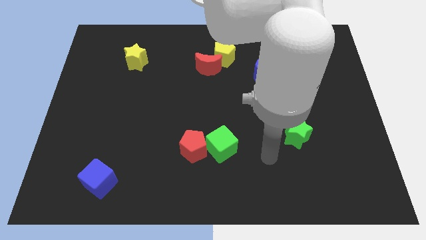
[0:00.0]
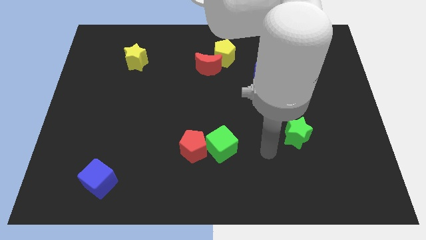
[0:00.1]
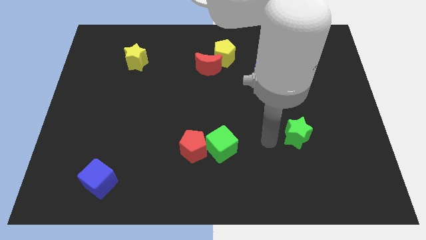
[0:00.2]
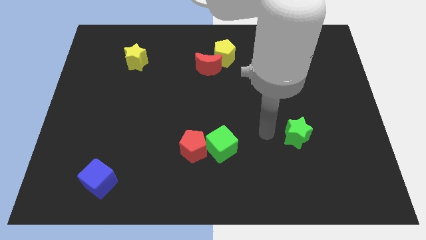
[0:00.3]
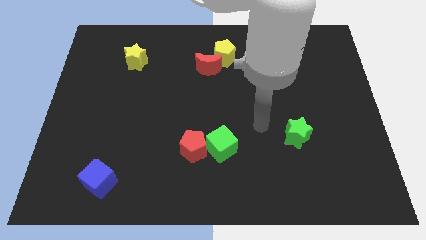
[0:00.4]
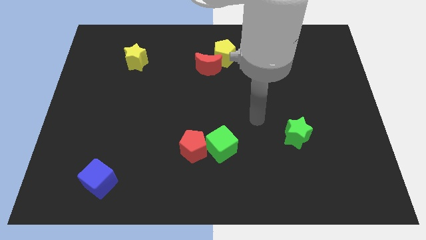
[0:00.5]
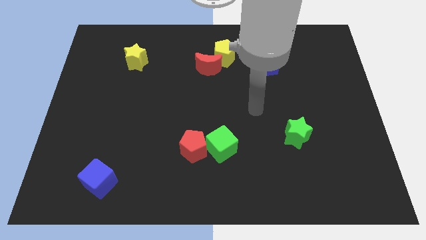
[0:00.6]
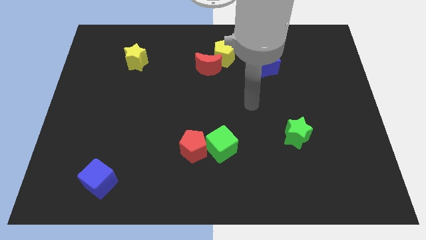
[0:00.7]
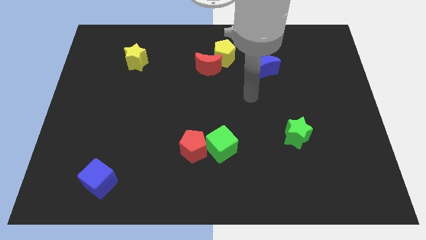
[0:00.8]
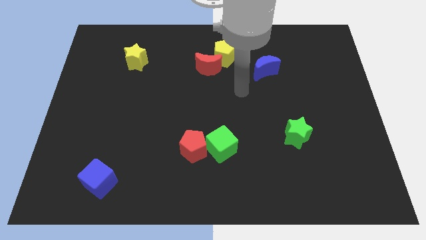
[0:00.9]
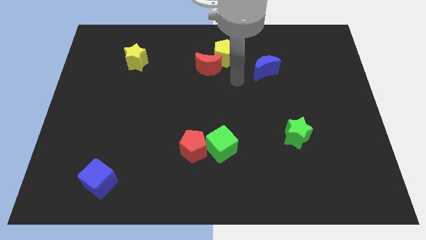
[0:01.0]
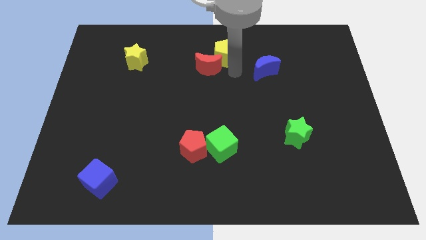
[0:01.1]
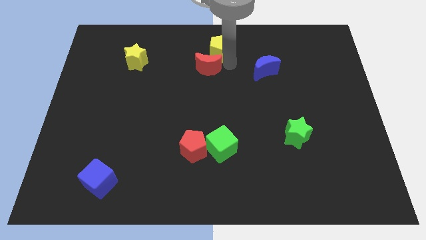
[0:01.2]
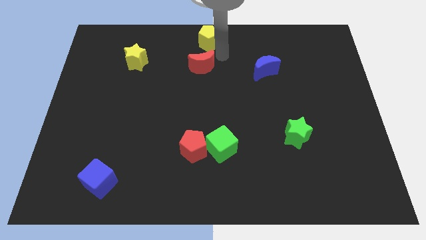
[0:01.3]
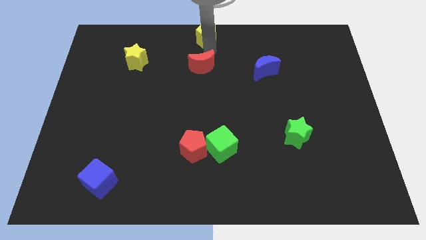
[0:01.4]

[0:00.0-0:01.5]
move the red moon away from the yellow pentagon

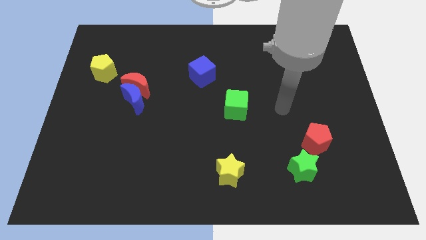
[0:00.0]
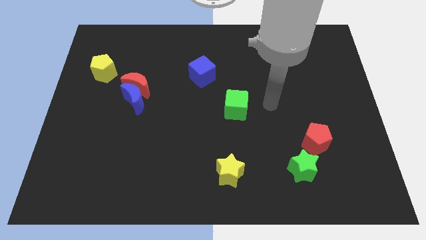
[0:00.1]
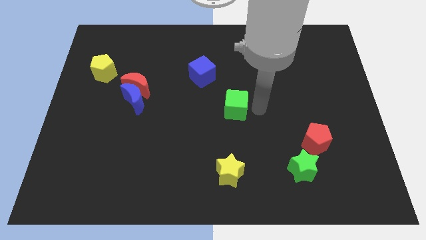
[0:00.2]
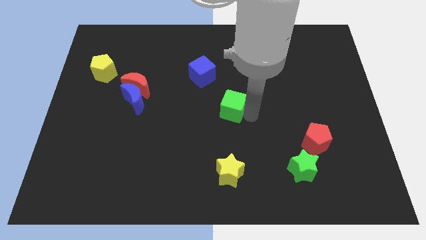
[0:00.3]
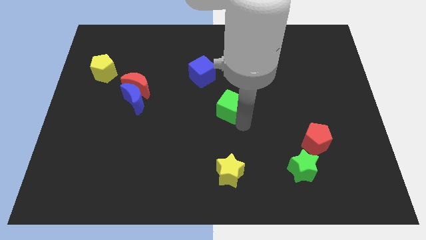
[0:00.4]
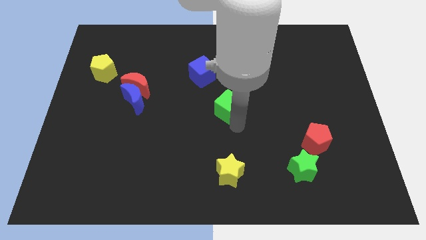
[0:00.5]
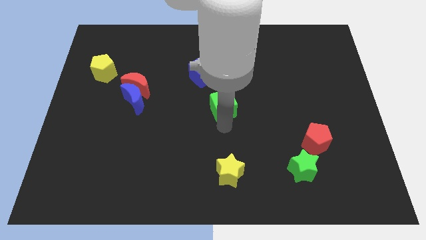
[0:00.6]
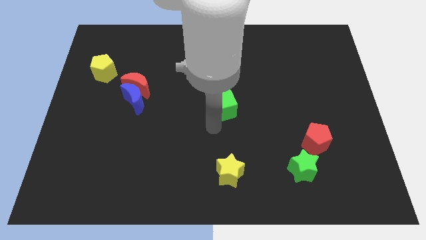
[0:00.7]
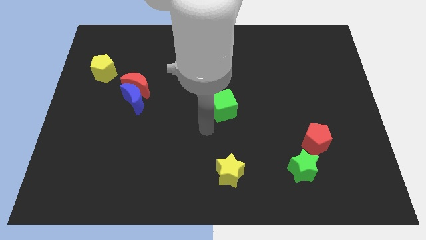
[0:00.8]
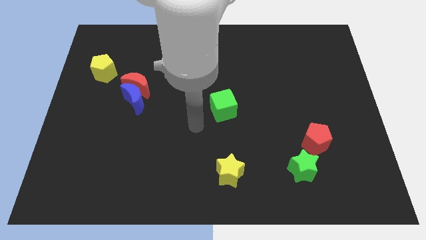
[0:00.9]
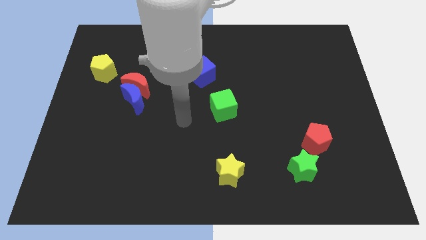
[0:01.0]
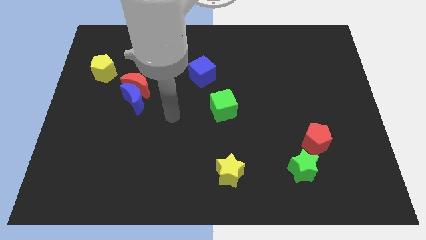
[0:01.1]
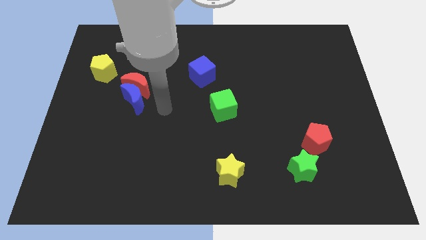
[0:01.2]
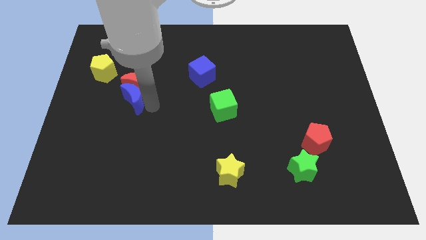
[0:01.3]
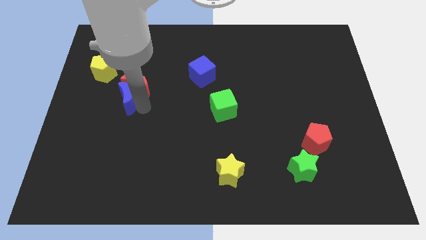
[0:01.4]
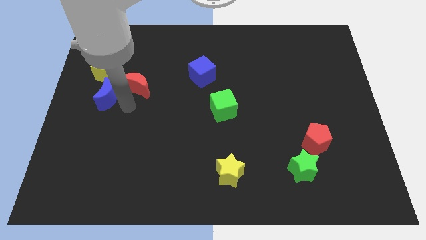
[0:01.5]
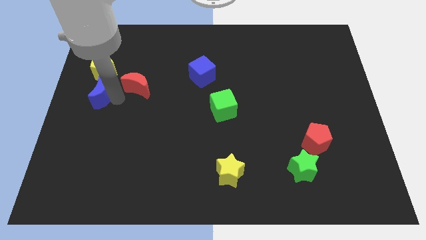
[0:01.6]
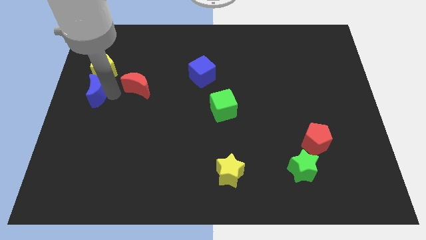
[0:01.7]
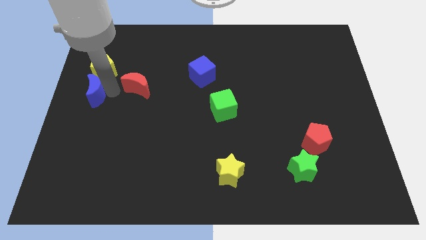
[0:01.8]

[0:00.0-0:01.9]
move the red moon away from the blue moon

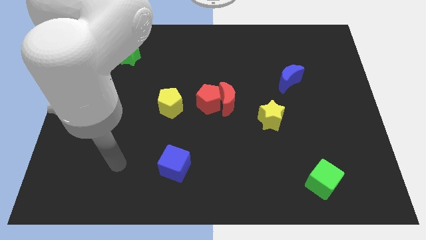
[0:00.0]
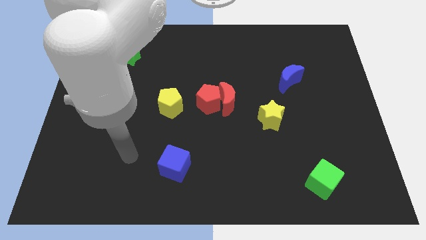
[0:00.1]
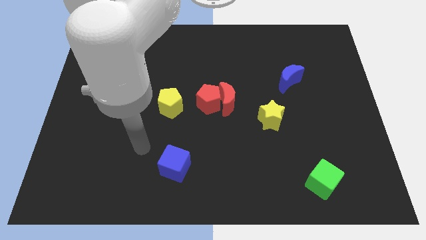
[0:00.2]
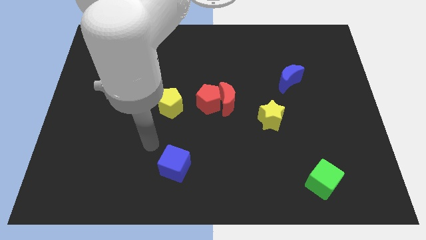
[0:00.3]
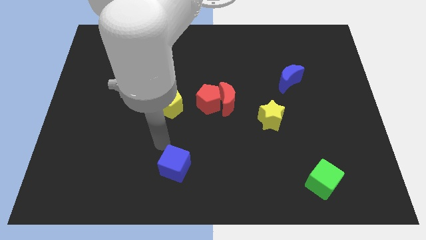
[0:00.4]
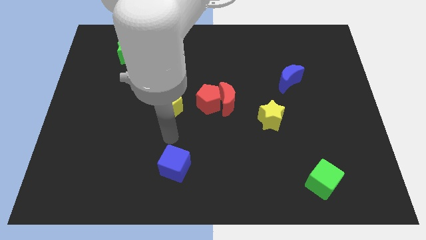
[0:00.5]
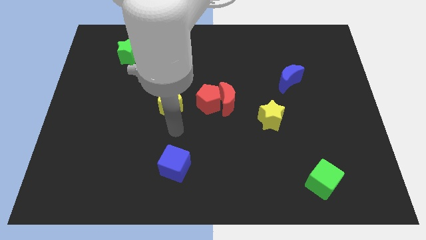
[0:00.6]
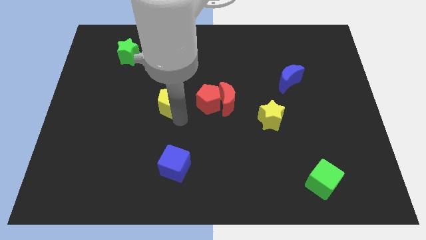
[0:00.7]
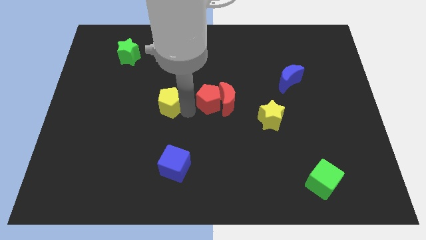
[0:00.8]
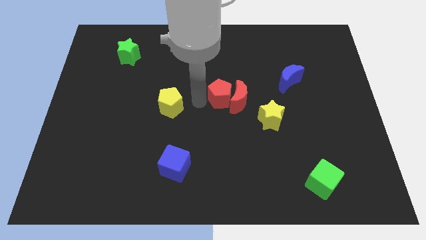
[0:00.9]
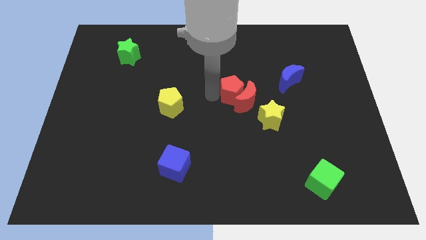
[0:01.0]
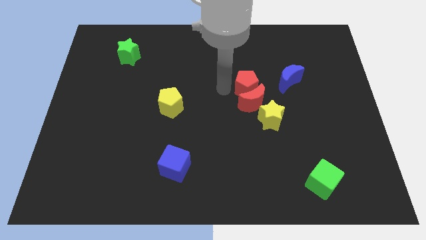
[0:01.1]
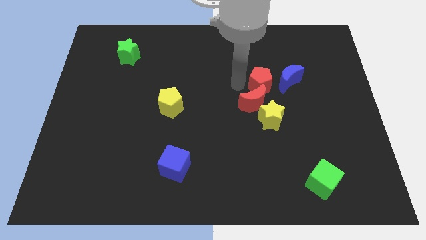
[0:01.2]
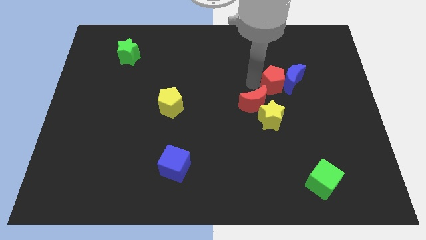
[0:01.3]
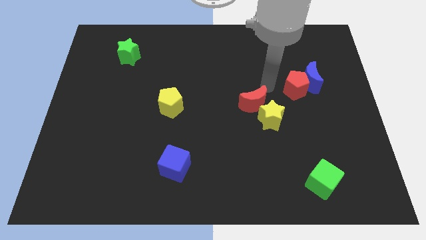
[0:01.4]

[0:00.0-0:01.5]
move the red moon away from the red pentagon

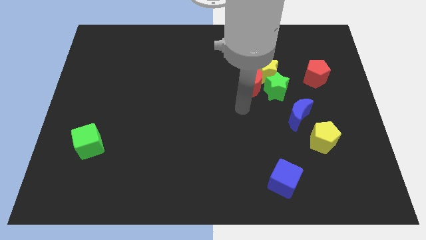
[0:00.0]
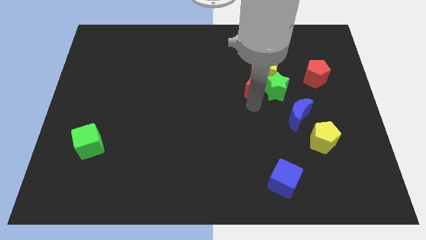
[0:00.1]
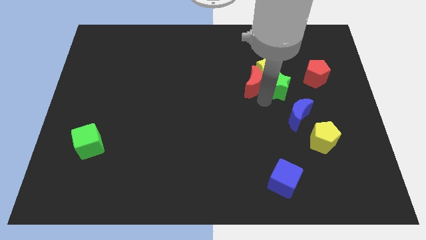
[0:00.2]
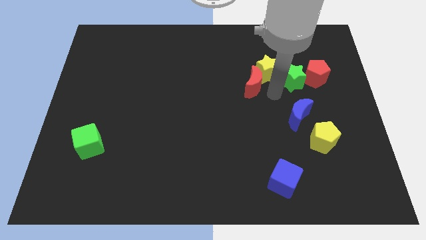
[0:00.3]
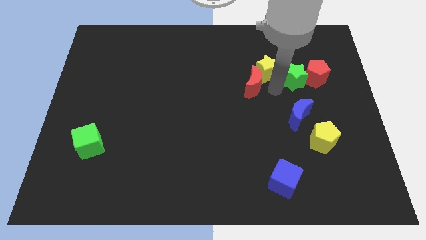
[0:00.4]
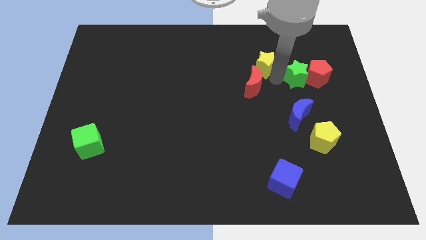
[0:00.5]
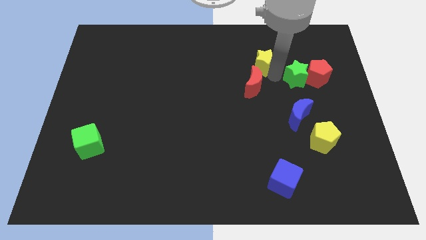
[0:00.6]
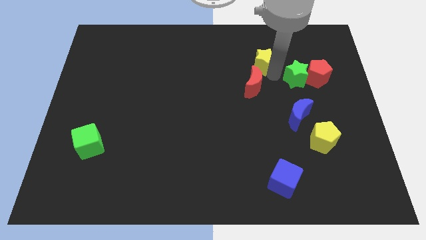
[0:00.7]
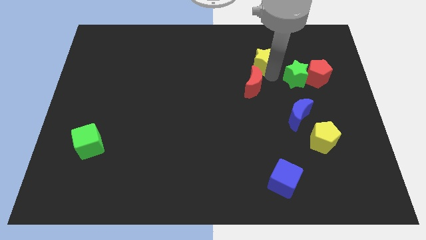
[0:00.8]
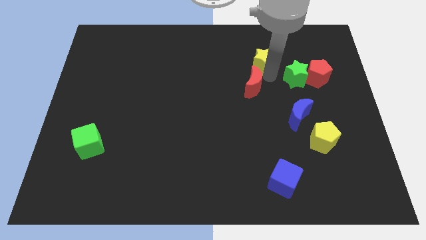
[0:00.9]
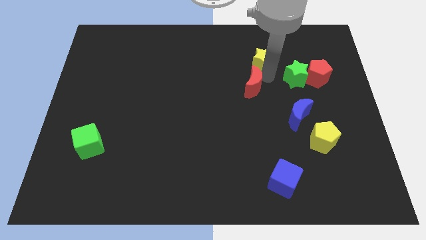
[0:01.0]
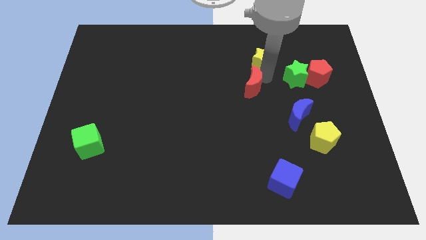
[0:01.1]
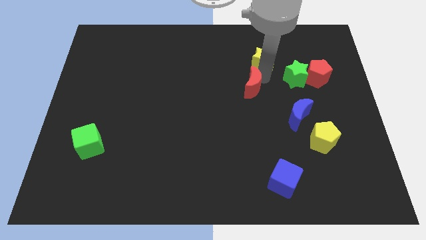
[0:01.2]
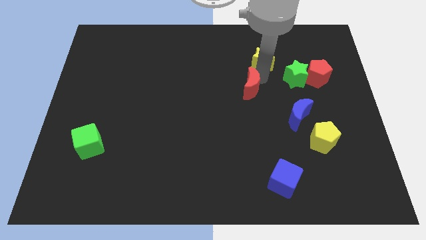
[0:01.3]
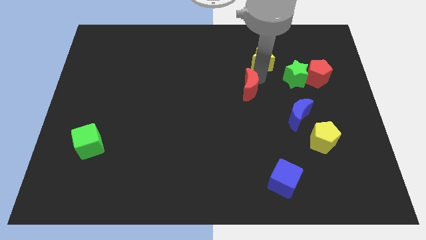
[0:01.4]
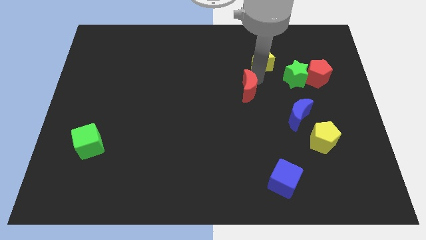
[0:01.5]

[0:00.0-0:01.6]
move the red moon away from the green star and yellow star

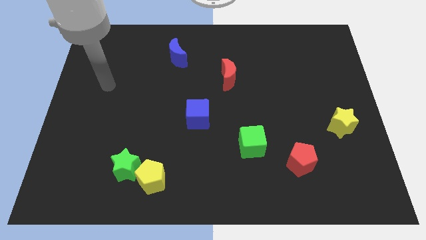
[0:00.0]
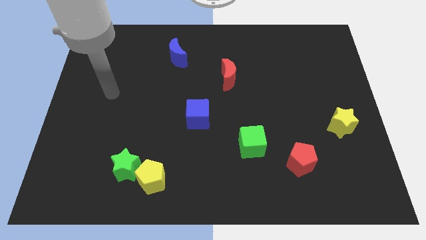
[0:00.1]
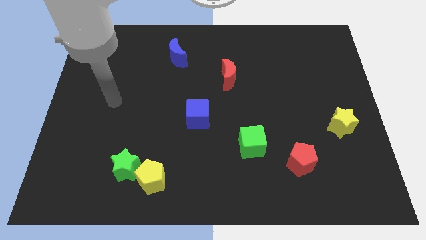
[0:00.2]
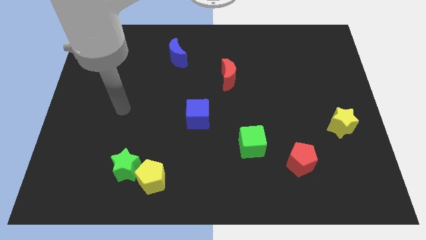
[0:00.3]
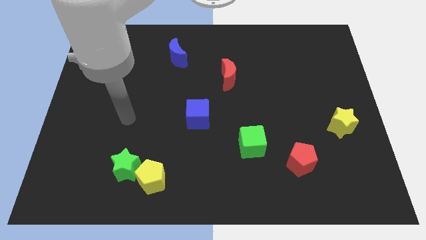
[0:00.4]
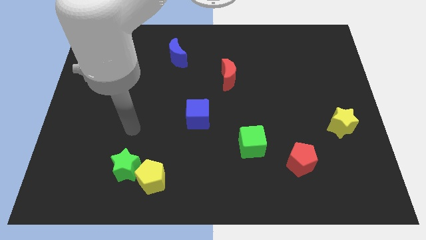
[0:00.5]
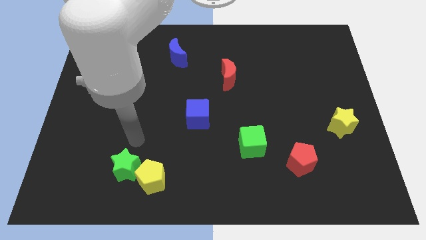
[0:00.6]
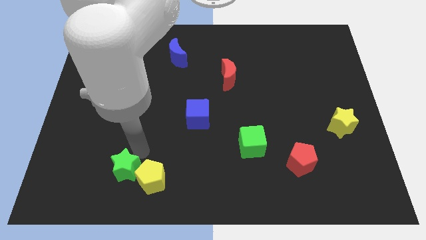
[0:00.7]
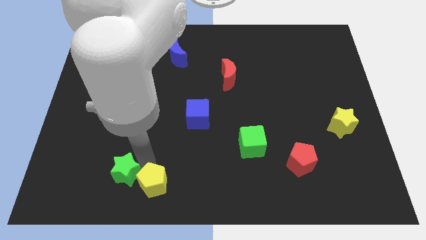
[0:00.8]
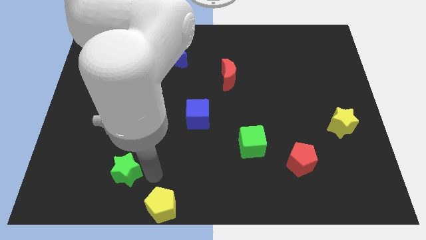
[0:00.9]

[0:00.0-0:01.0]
move the green star away from the yellow pentagon

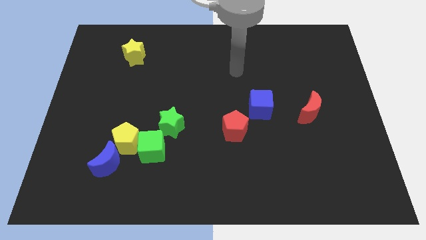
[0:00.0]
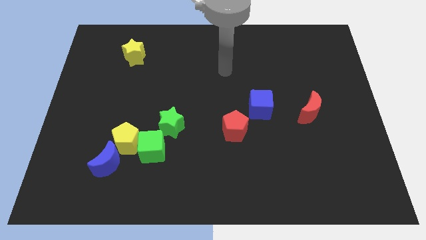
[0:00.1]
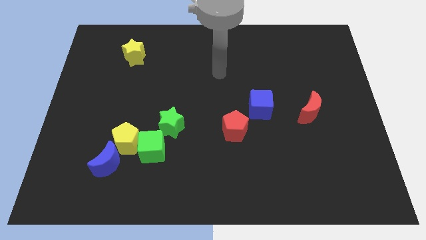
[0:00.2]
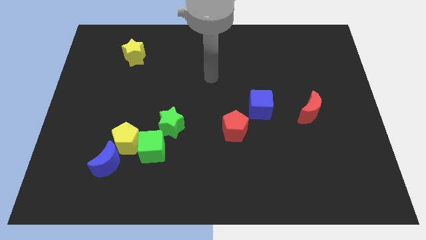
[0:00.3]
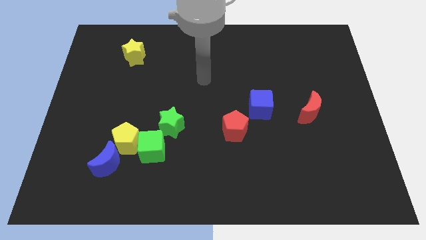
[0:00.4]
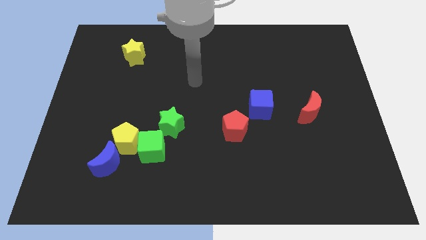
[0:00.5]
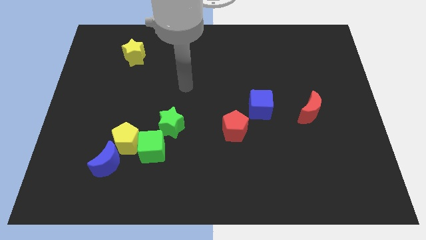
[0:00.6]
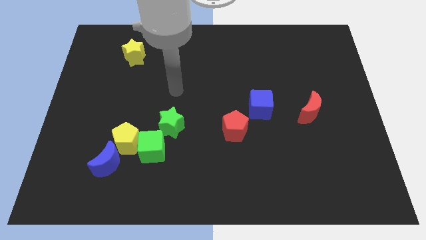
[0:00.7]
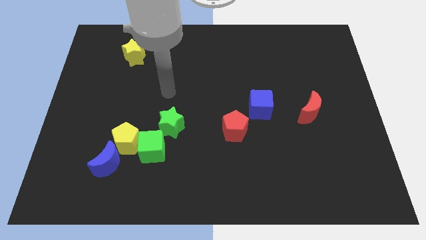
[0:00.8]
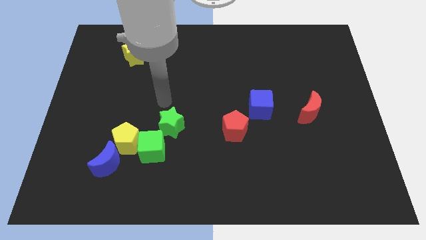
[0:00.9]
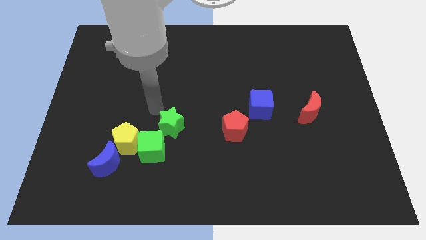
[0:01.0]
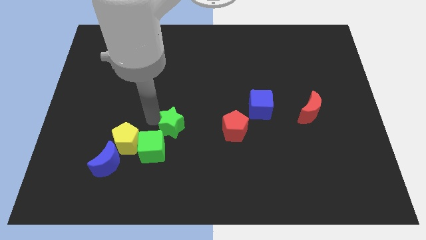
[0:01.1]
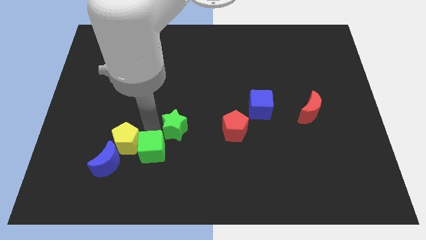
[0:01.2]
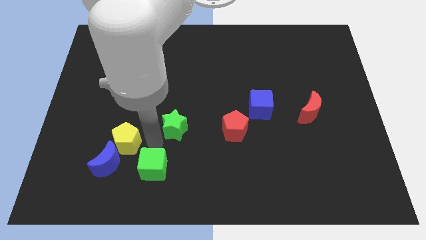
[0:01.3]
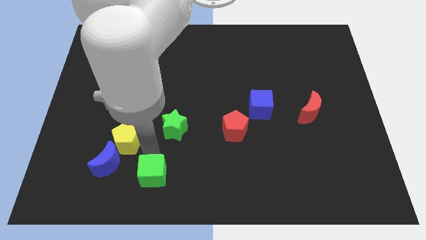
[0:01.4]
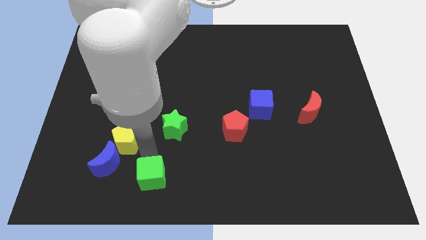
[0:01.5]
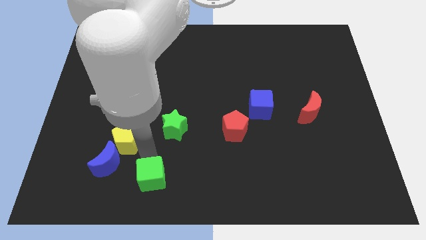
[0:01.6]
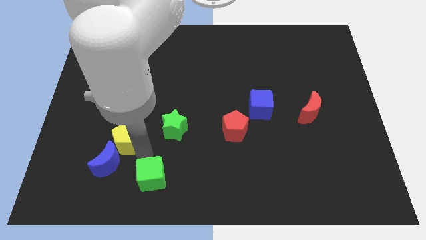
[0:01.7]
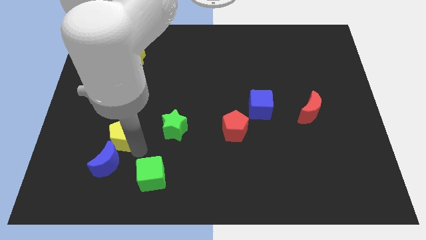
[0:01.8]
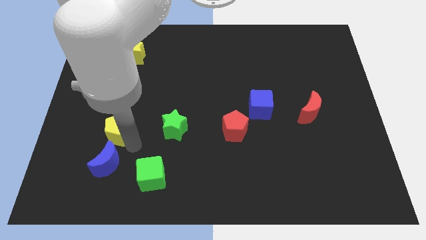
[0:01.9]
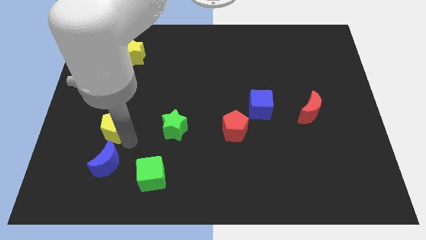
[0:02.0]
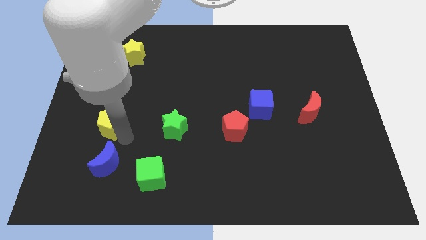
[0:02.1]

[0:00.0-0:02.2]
move the yellow pentagon away from the green cube, blue moon, and green star
